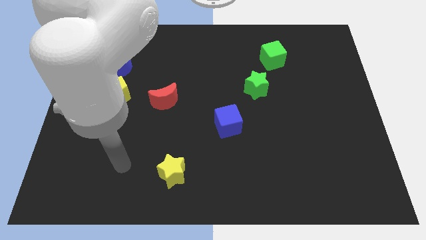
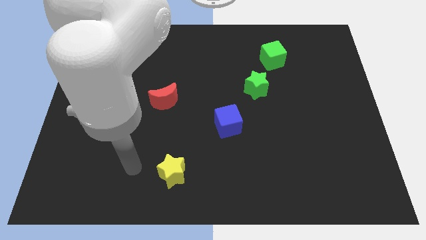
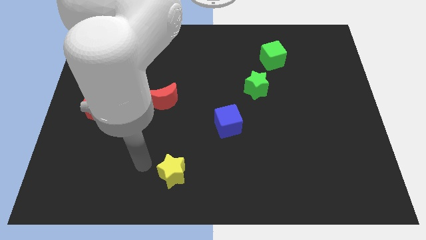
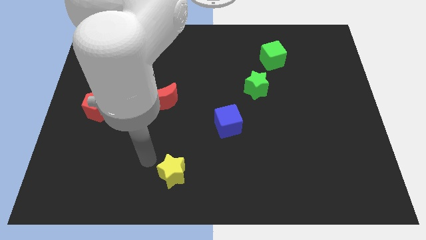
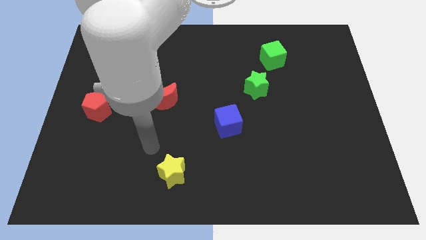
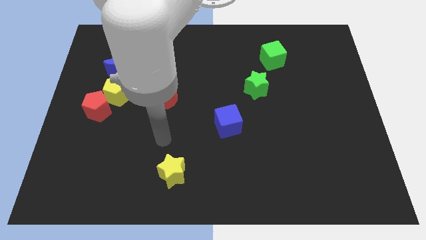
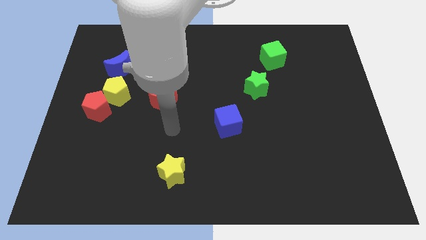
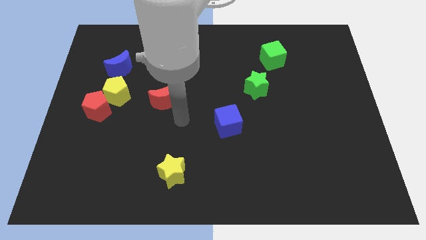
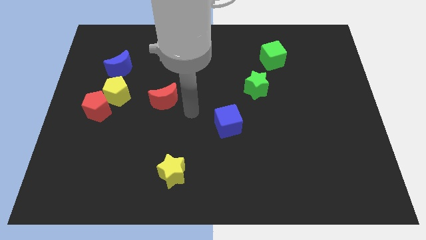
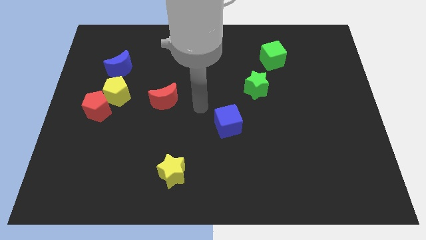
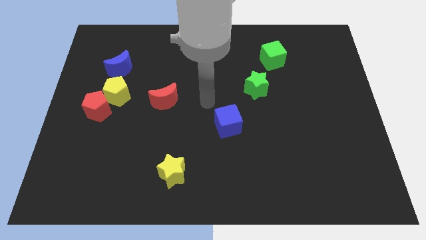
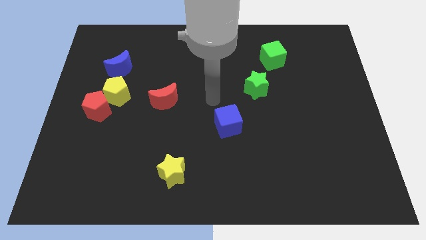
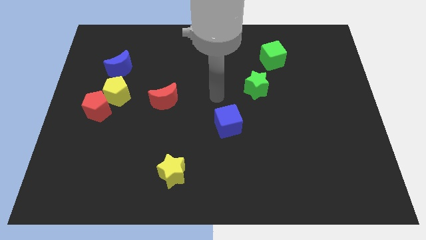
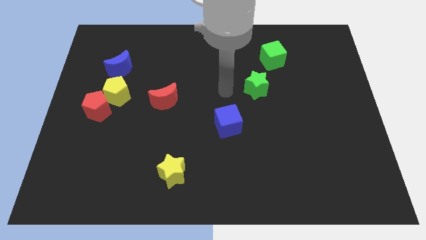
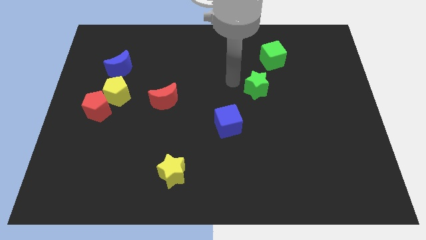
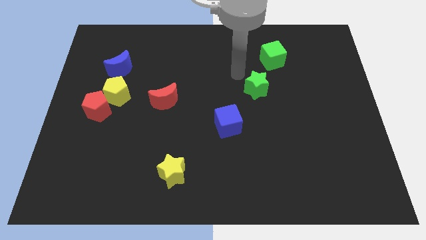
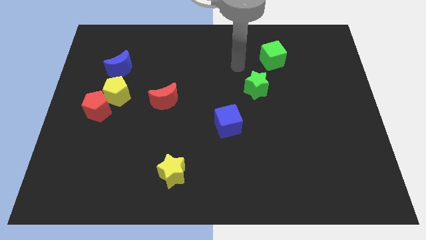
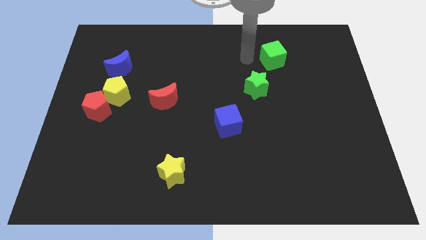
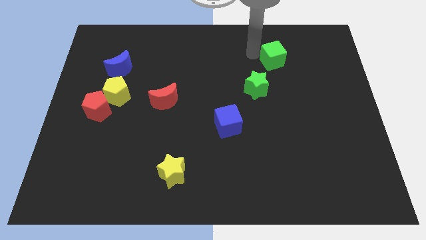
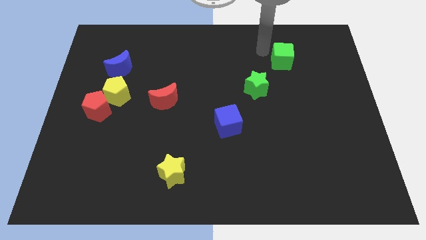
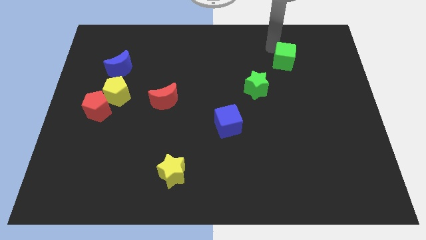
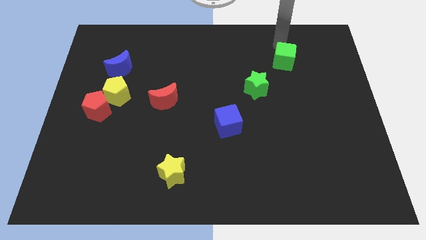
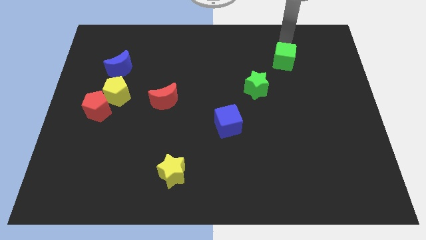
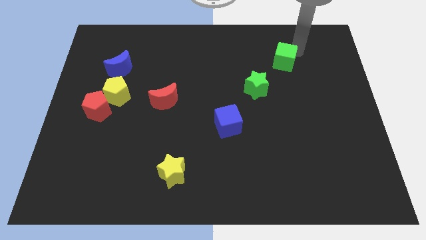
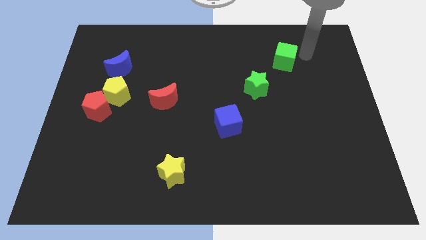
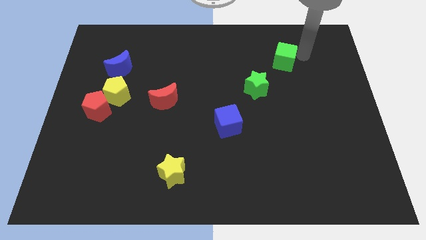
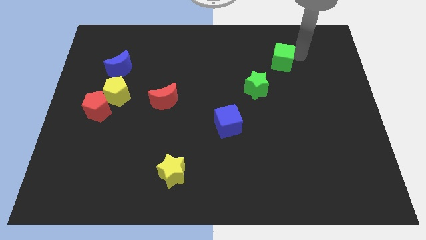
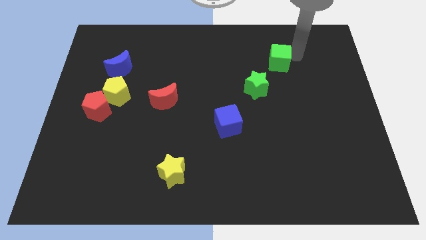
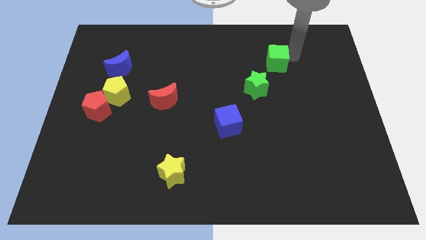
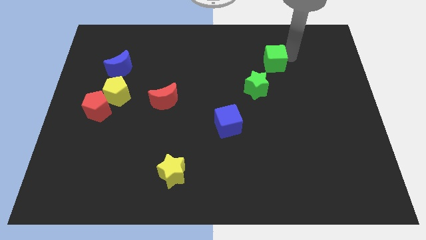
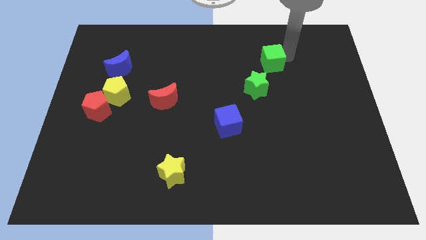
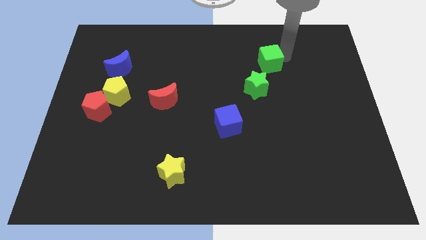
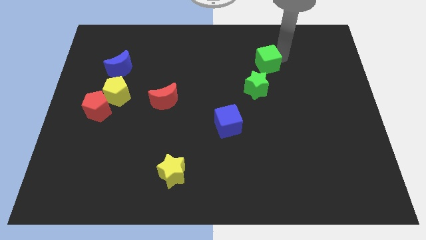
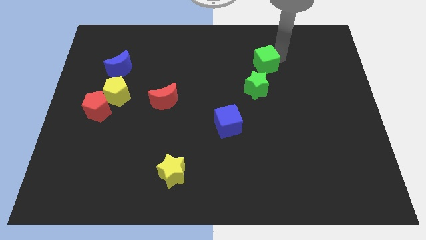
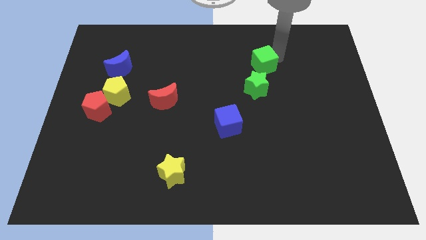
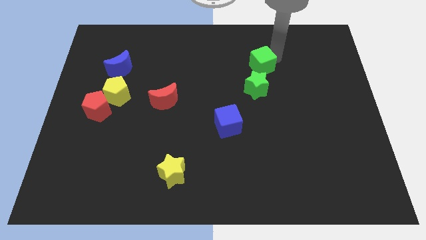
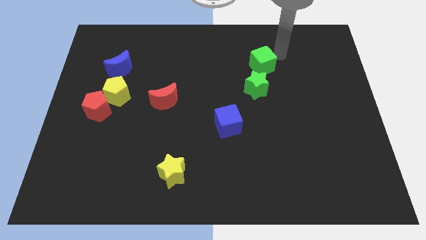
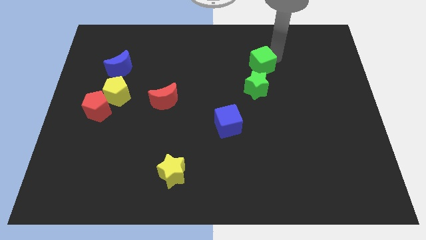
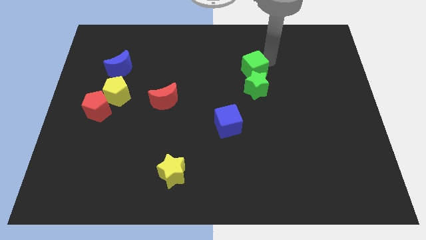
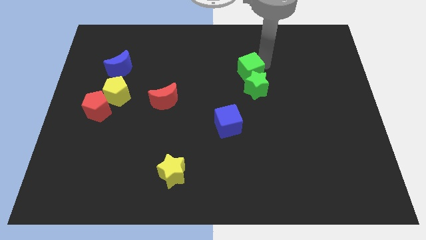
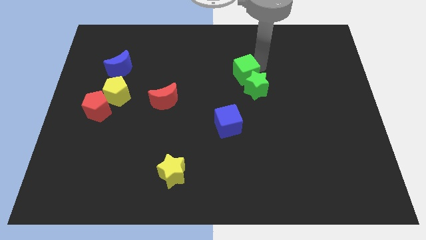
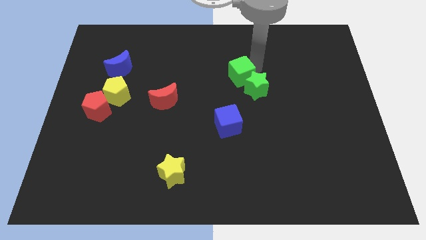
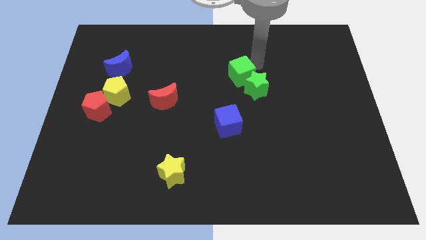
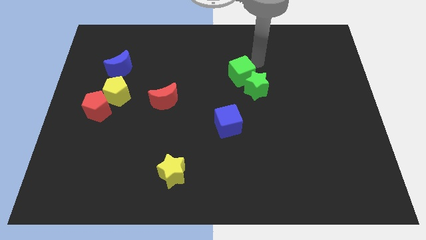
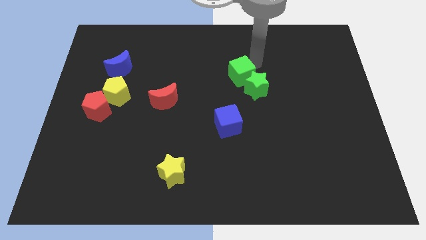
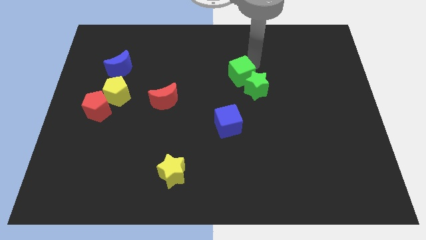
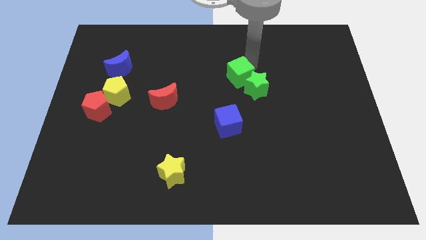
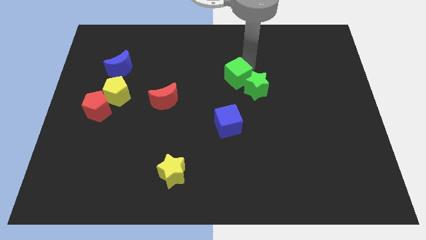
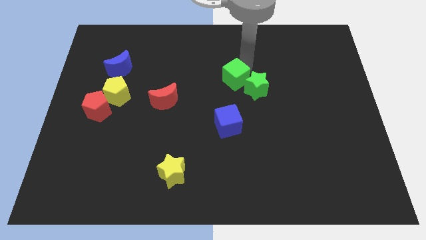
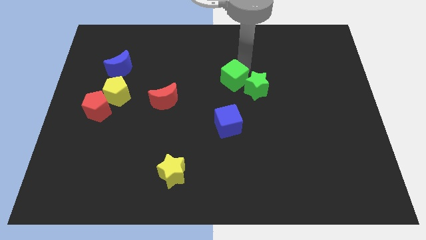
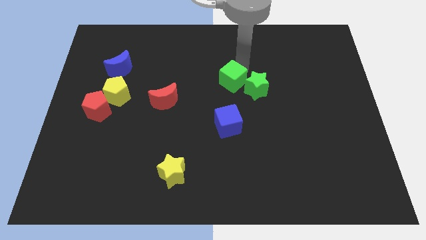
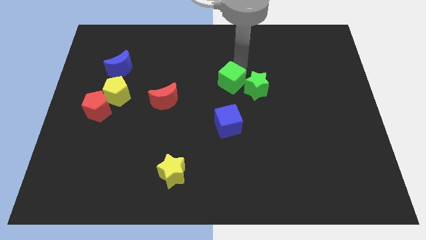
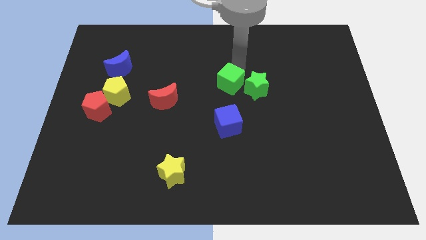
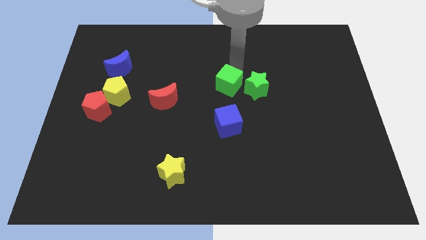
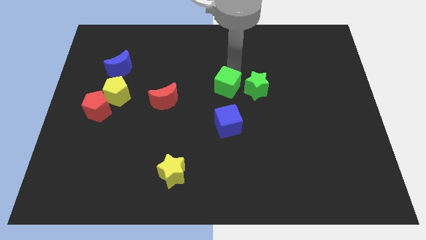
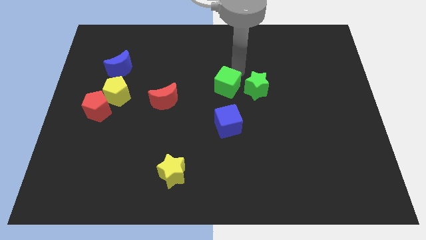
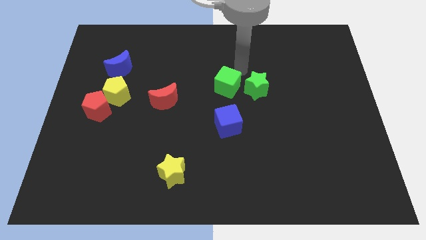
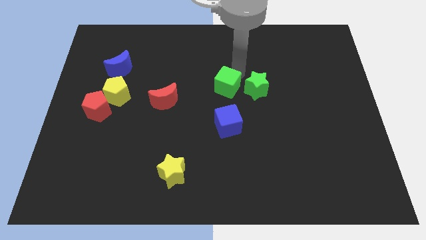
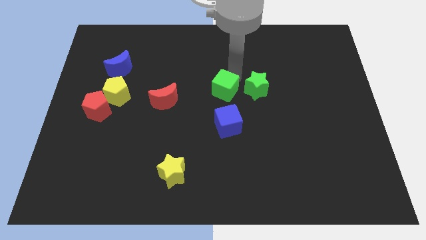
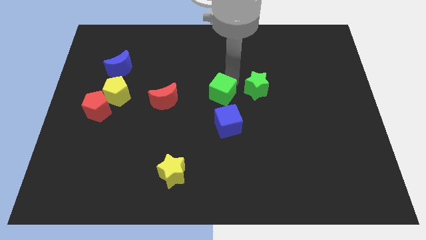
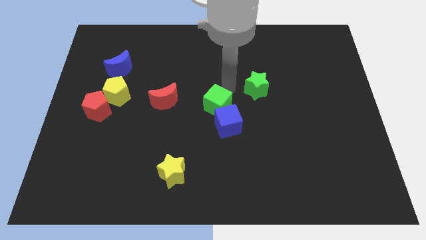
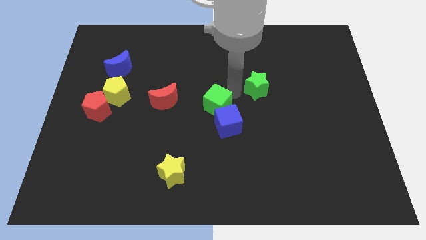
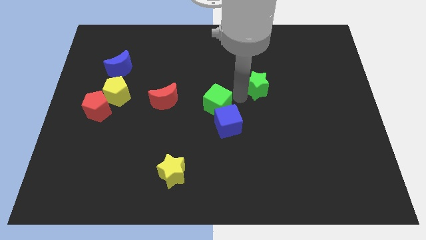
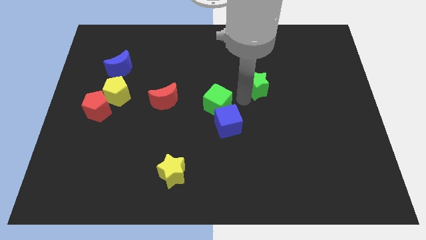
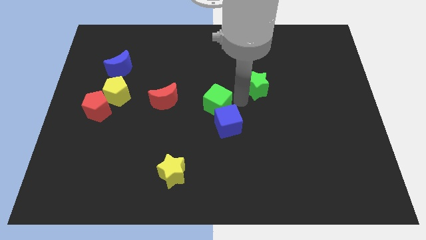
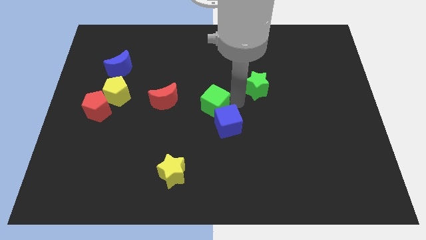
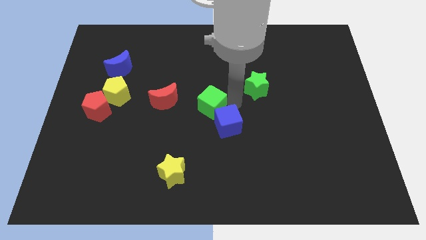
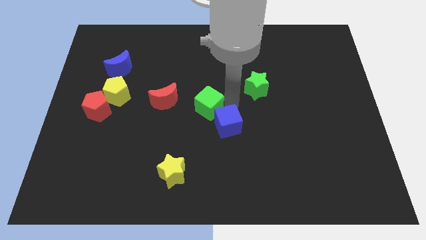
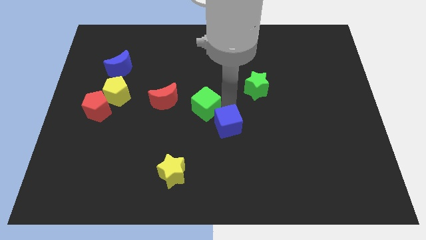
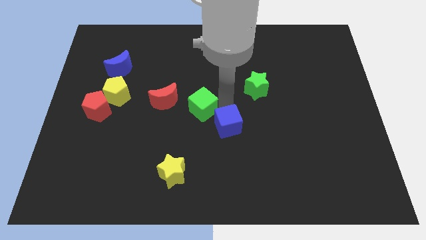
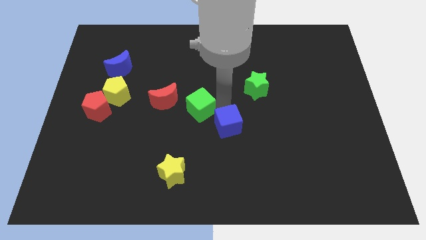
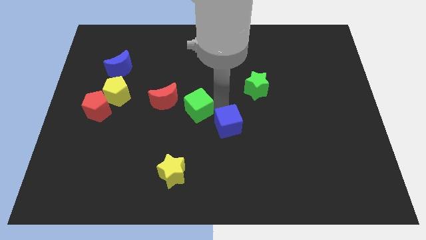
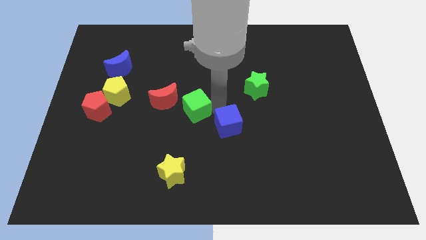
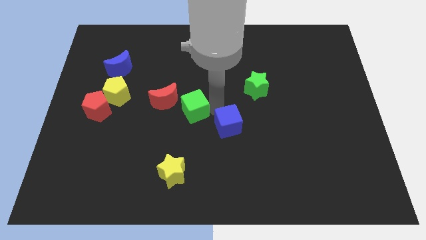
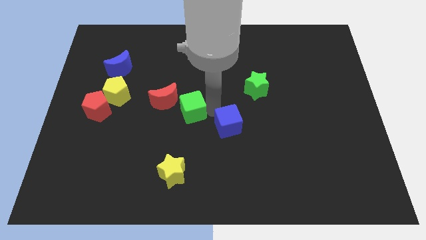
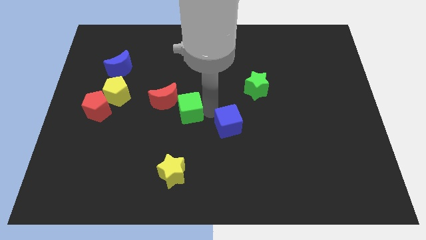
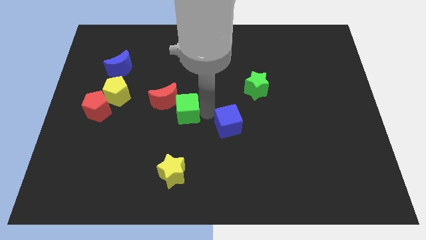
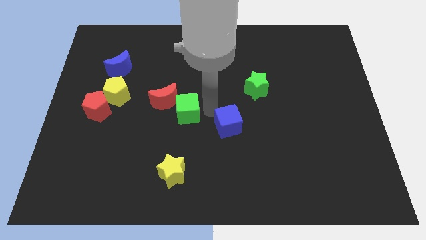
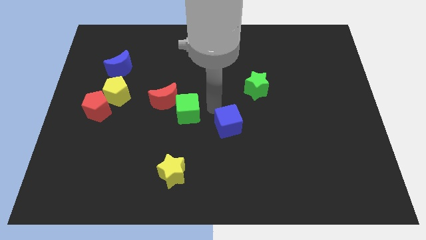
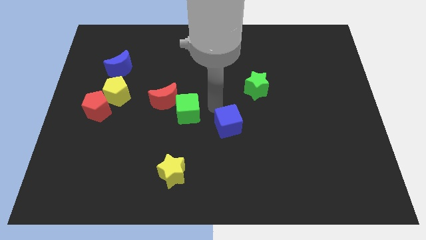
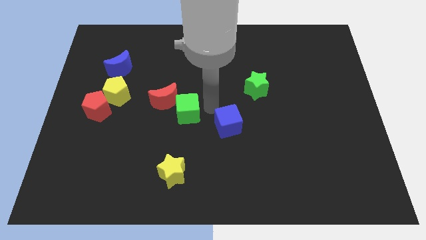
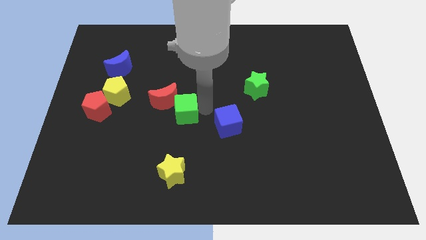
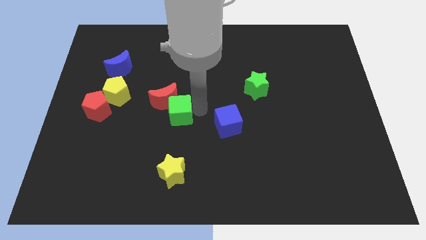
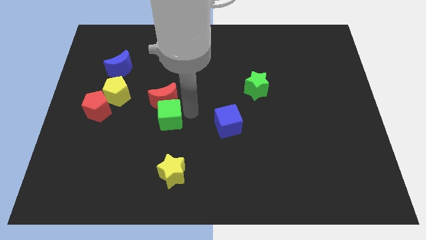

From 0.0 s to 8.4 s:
slide the green cube to the bottom left of the red moon
